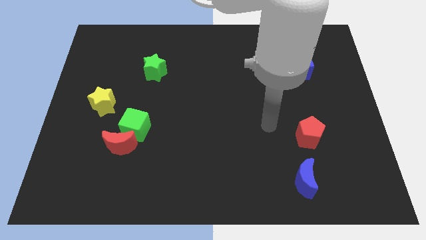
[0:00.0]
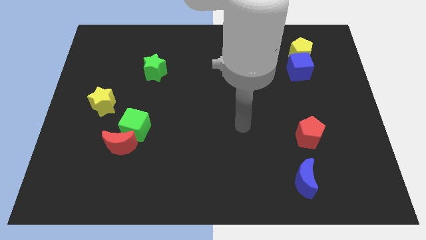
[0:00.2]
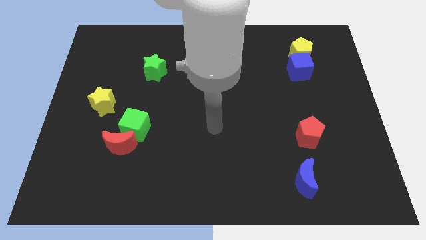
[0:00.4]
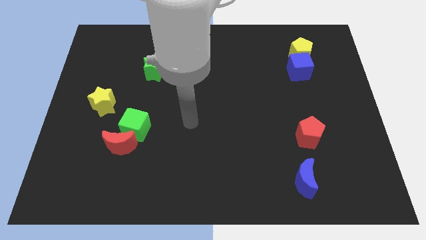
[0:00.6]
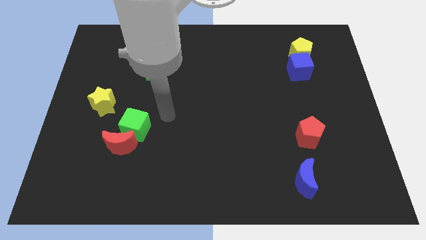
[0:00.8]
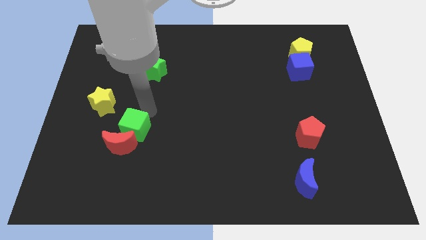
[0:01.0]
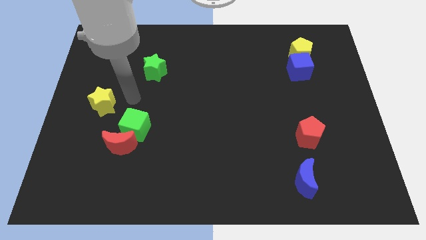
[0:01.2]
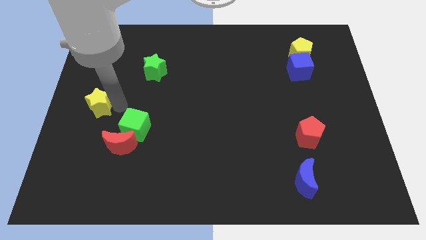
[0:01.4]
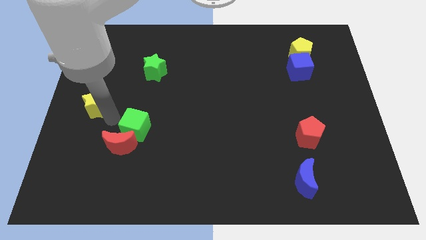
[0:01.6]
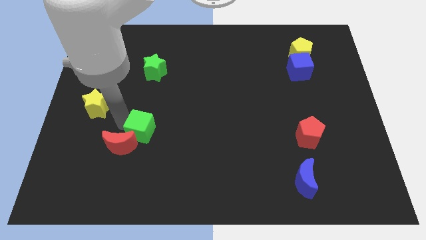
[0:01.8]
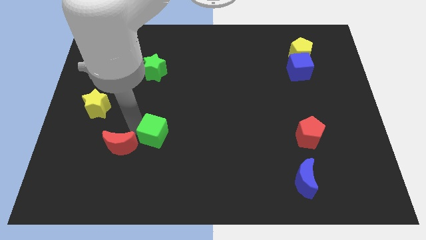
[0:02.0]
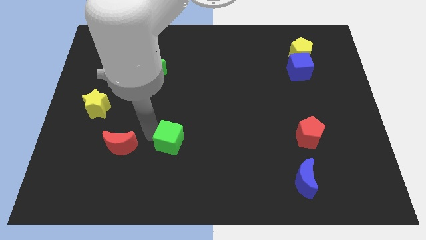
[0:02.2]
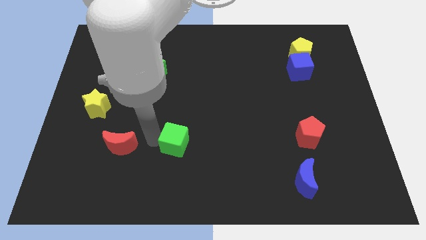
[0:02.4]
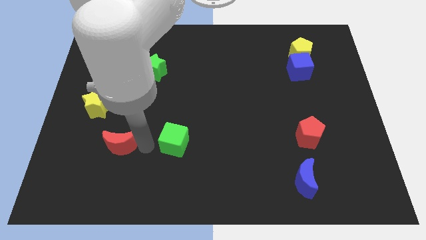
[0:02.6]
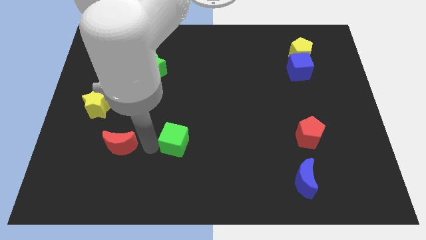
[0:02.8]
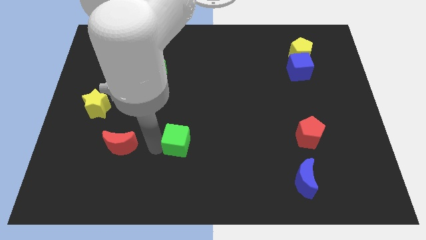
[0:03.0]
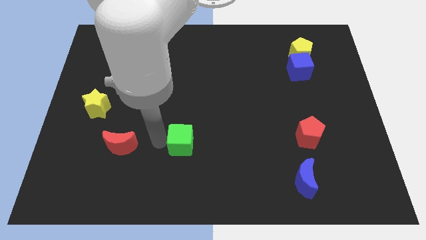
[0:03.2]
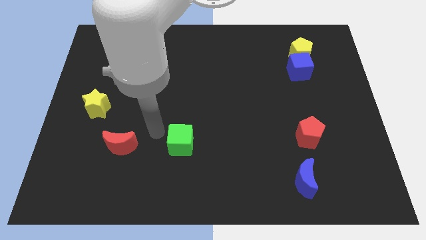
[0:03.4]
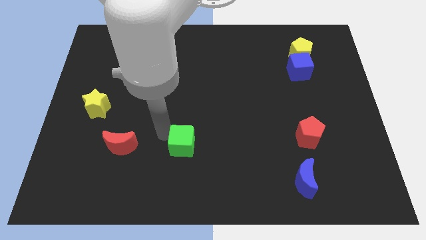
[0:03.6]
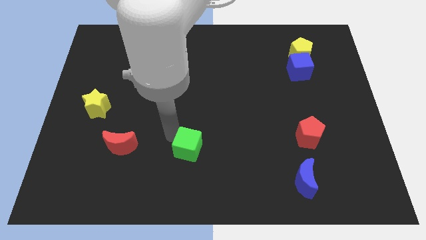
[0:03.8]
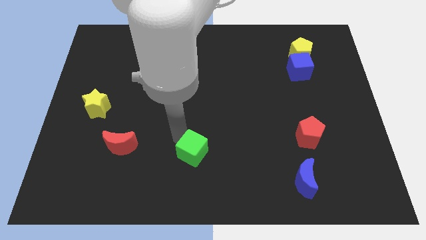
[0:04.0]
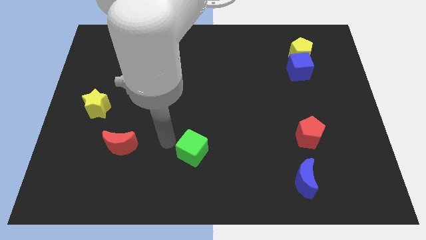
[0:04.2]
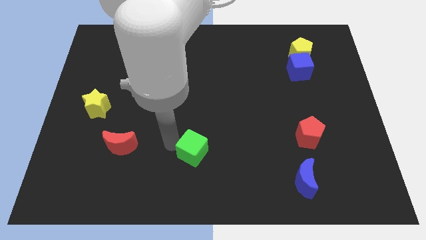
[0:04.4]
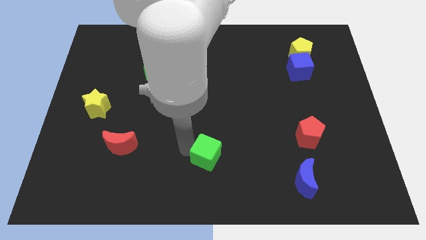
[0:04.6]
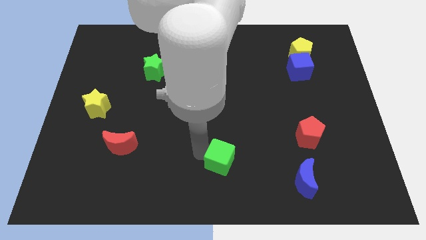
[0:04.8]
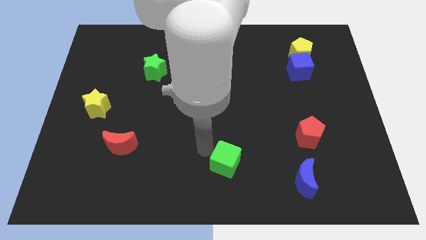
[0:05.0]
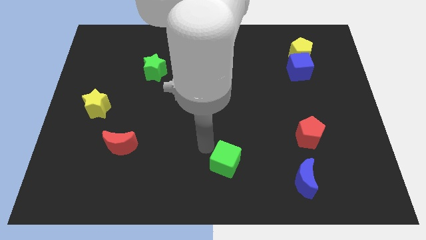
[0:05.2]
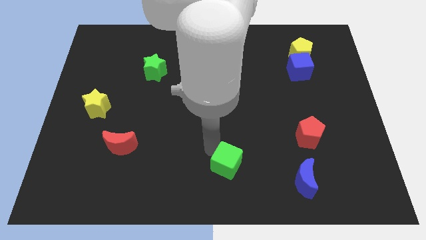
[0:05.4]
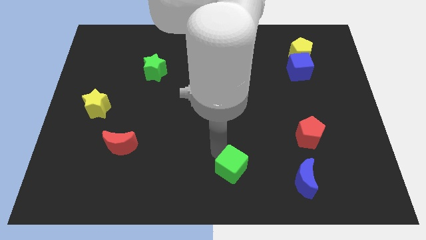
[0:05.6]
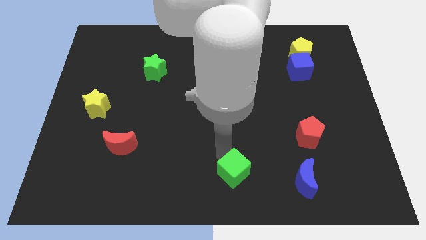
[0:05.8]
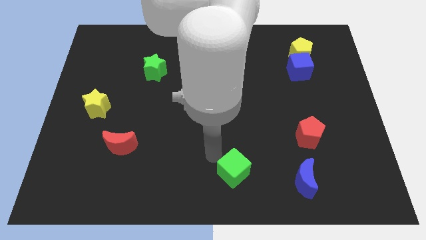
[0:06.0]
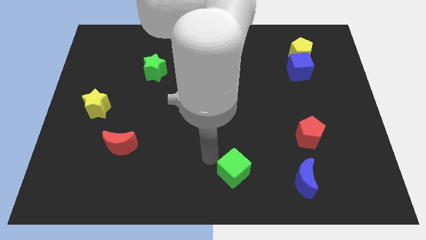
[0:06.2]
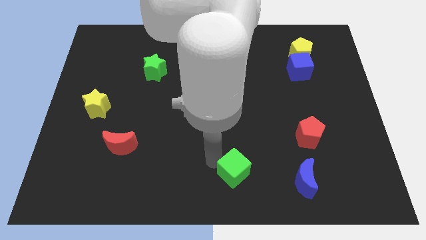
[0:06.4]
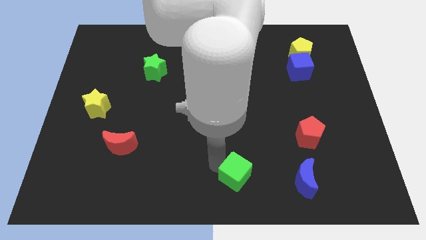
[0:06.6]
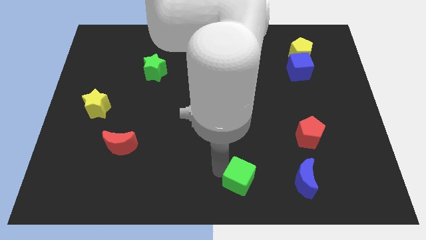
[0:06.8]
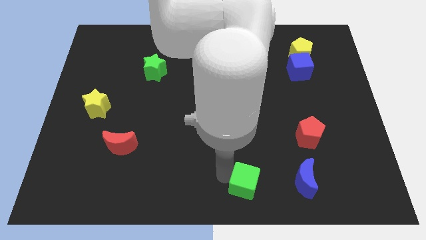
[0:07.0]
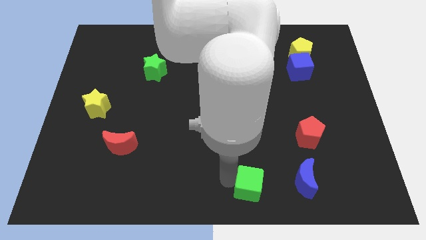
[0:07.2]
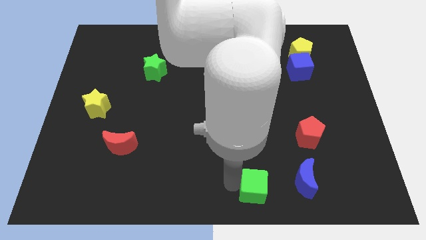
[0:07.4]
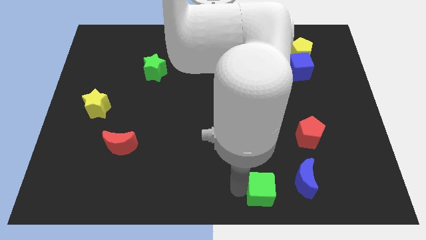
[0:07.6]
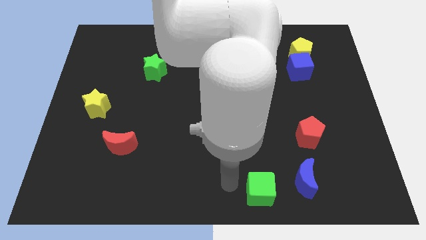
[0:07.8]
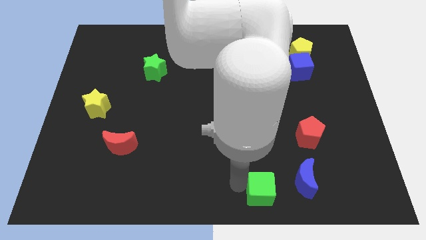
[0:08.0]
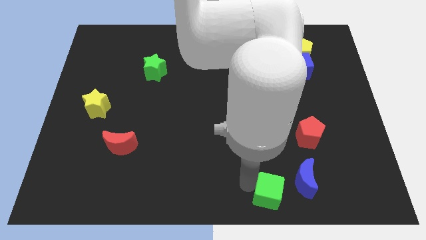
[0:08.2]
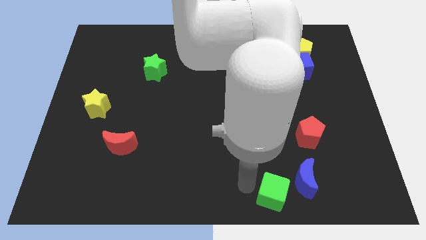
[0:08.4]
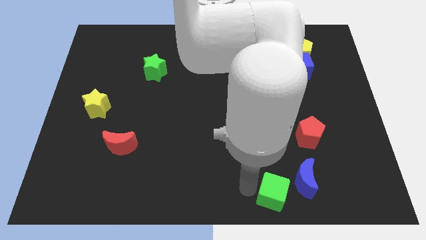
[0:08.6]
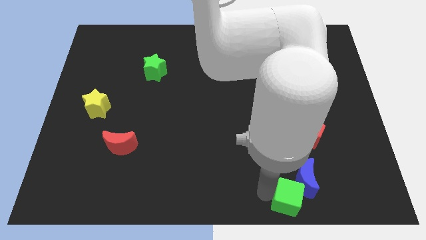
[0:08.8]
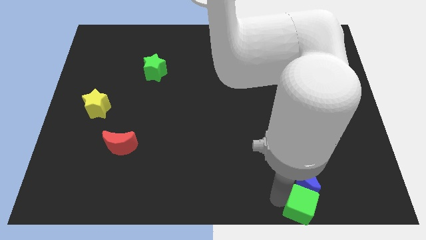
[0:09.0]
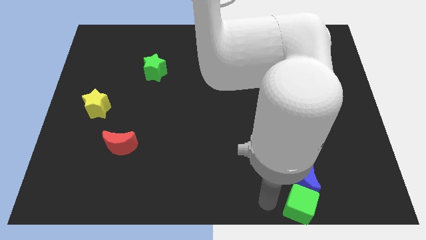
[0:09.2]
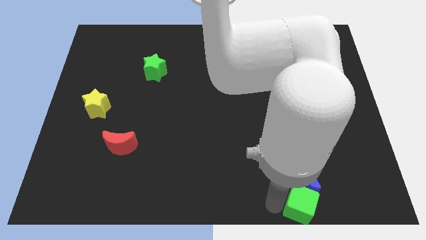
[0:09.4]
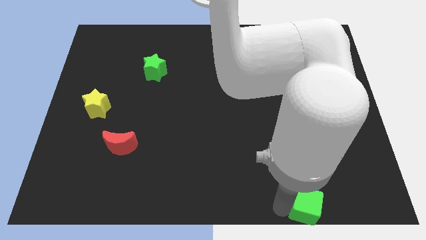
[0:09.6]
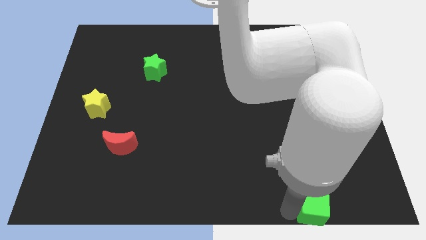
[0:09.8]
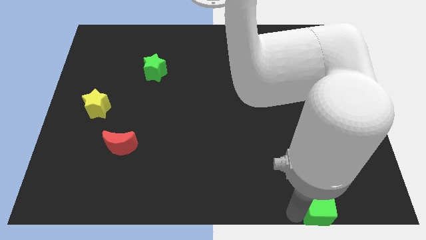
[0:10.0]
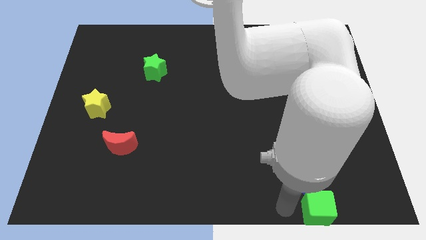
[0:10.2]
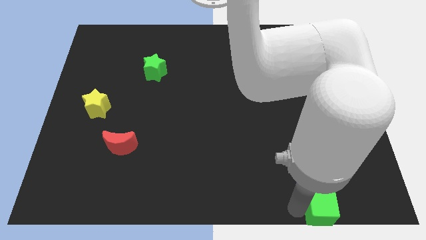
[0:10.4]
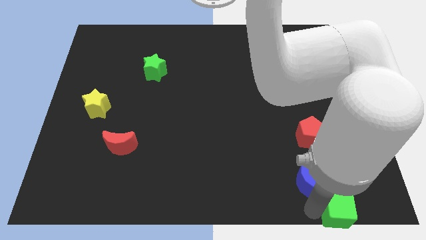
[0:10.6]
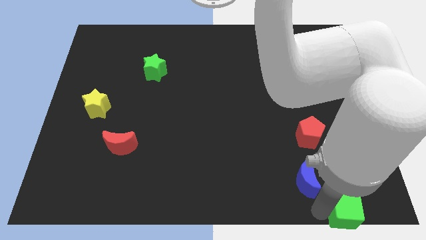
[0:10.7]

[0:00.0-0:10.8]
put the green cube to the lower right corner

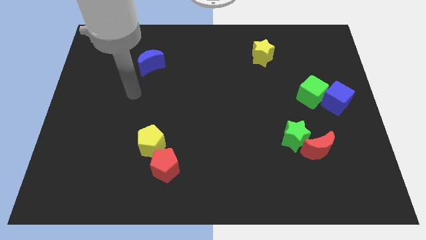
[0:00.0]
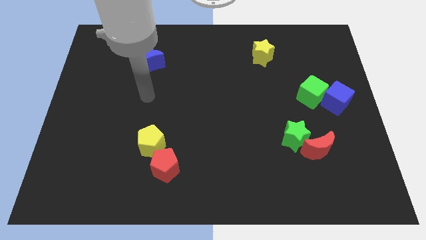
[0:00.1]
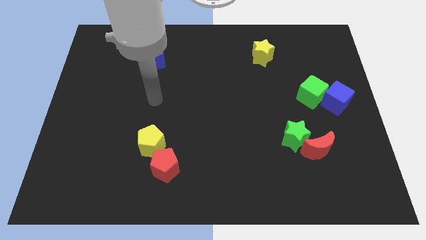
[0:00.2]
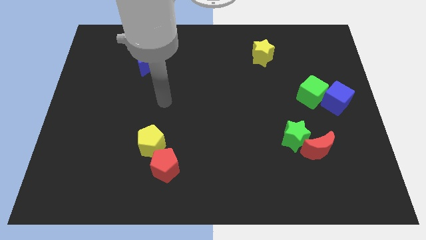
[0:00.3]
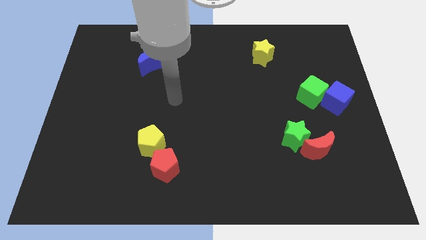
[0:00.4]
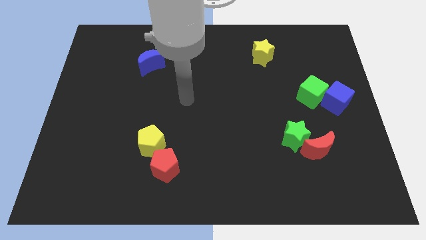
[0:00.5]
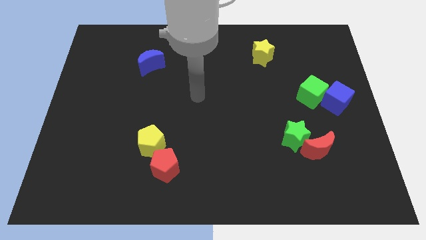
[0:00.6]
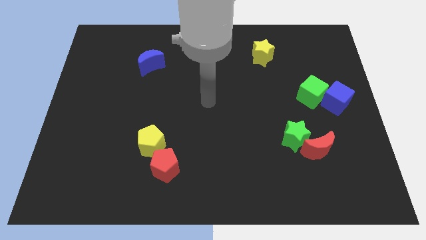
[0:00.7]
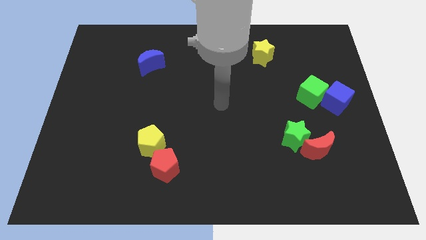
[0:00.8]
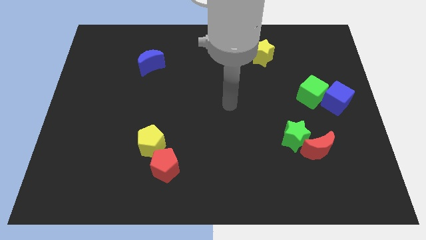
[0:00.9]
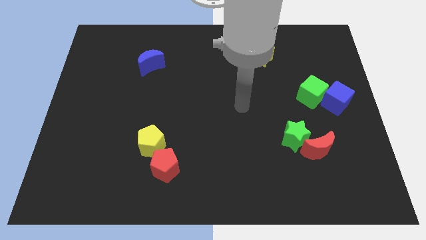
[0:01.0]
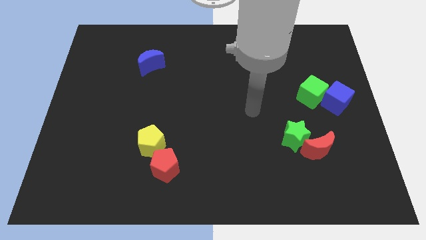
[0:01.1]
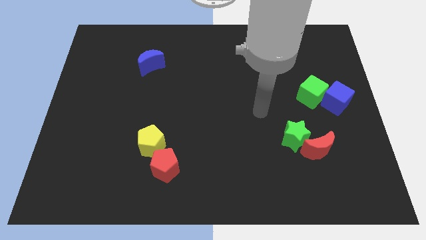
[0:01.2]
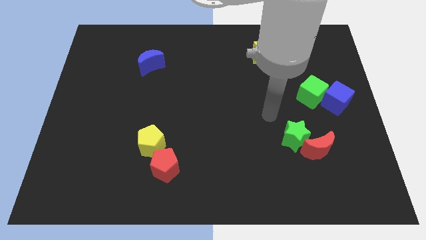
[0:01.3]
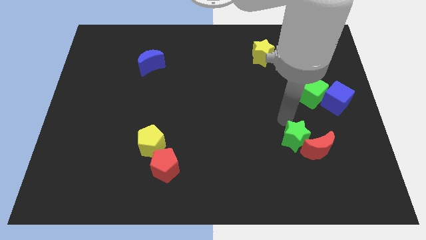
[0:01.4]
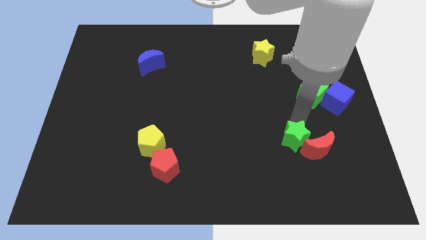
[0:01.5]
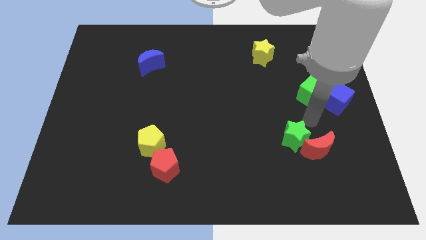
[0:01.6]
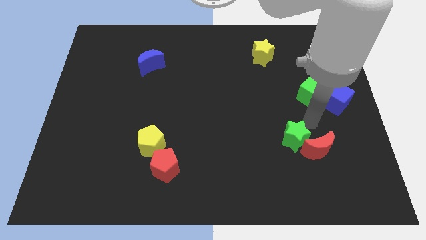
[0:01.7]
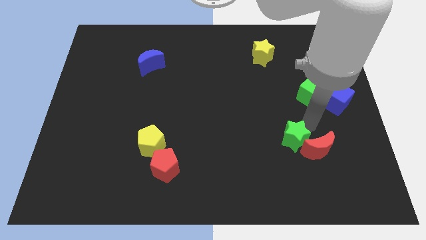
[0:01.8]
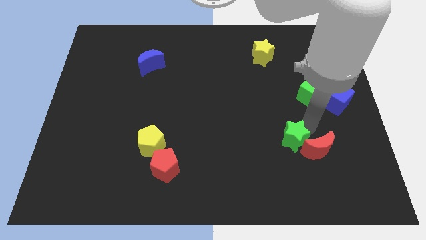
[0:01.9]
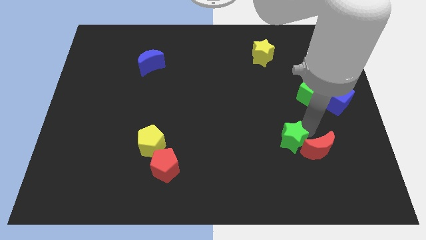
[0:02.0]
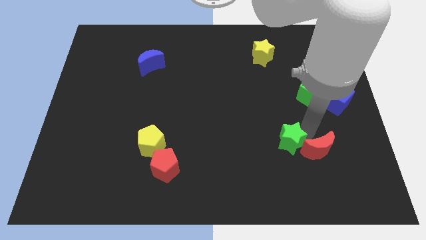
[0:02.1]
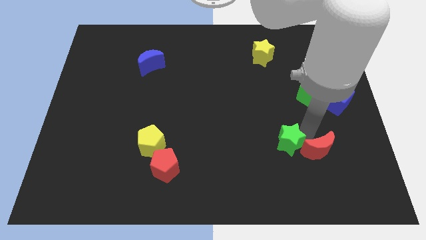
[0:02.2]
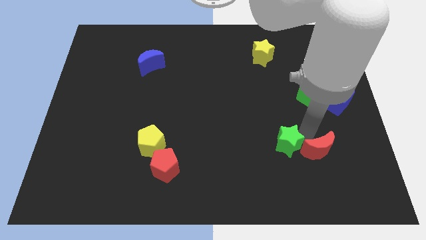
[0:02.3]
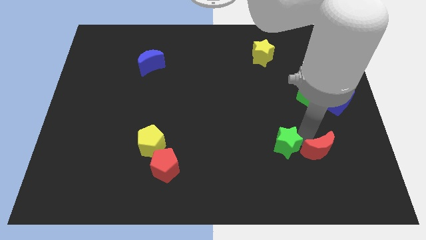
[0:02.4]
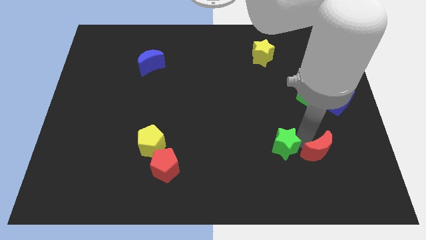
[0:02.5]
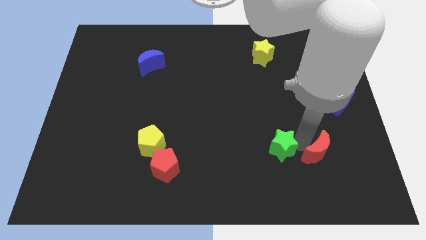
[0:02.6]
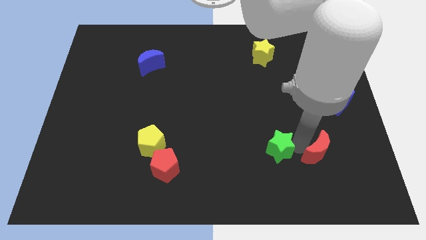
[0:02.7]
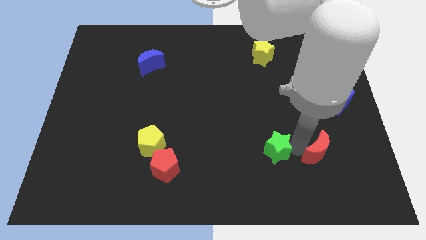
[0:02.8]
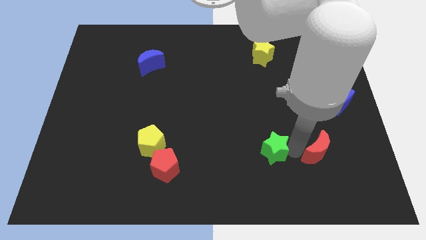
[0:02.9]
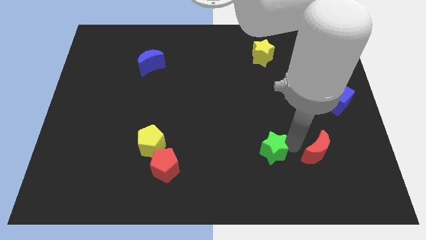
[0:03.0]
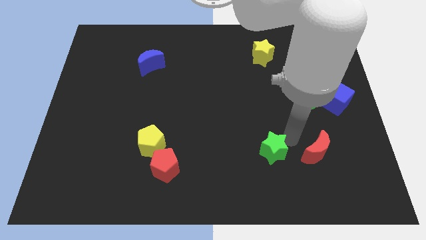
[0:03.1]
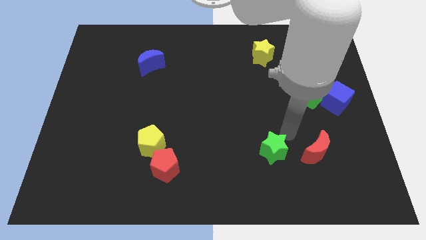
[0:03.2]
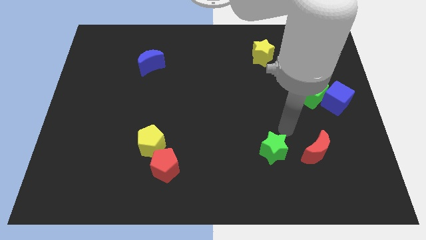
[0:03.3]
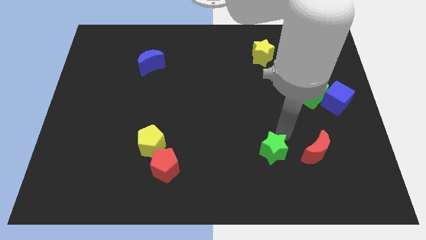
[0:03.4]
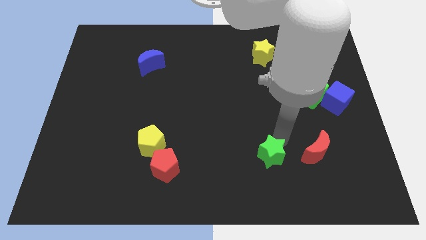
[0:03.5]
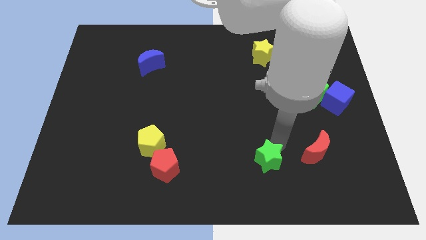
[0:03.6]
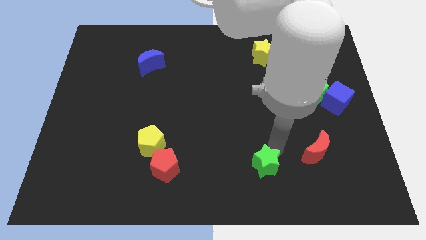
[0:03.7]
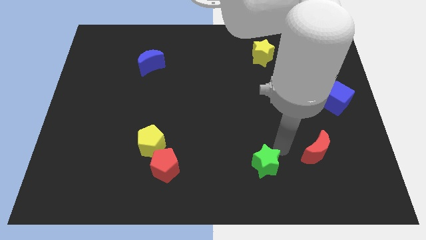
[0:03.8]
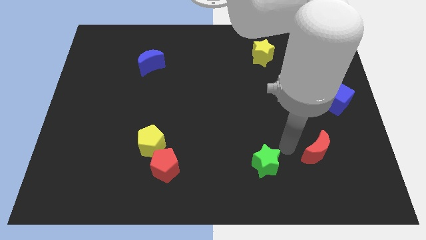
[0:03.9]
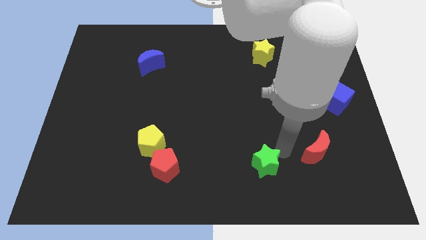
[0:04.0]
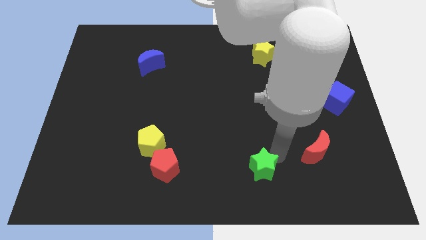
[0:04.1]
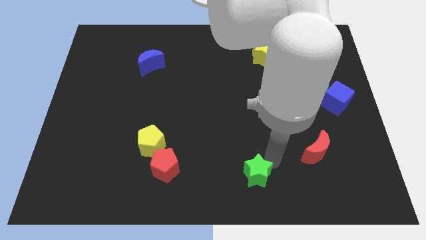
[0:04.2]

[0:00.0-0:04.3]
slide the green star to the bottom side
